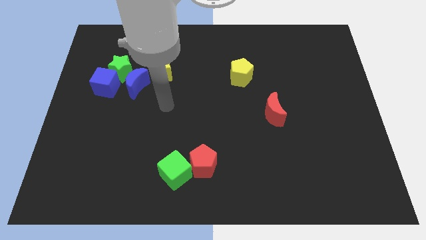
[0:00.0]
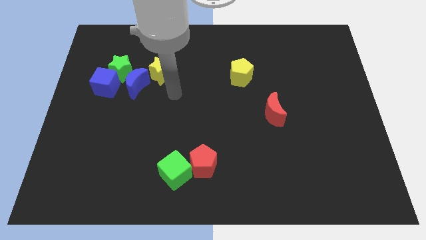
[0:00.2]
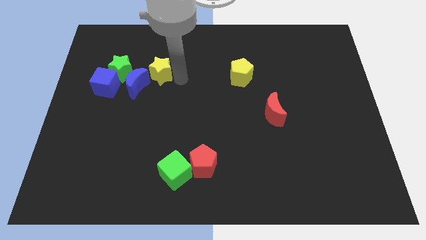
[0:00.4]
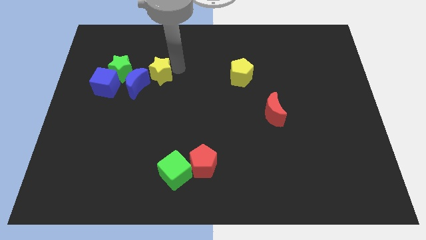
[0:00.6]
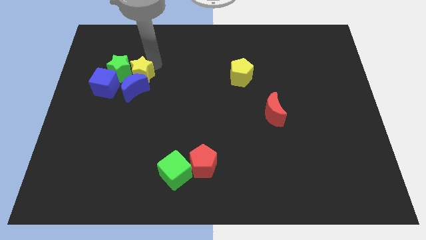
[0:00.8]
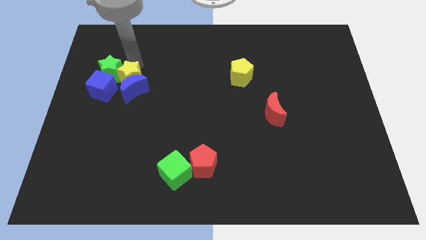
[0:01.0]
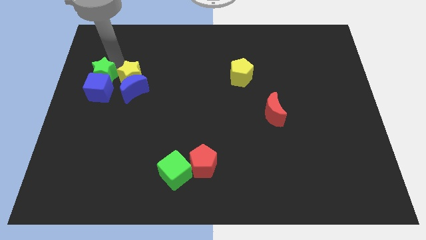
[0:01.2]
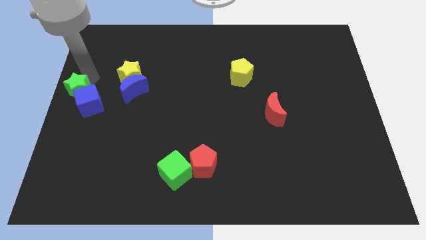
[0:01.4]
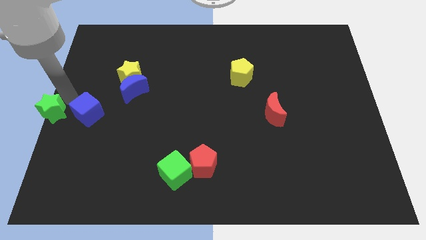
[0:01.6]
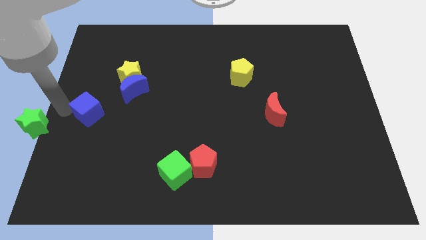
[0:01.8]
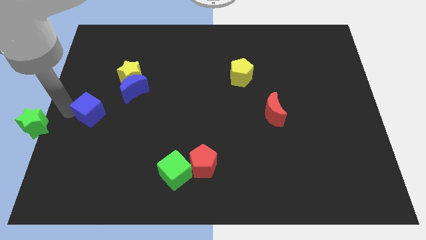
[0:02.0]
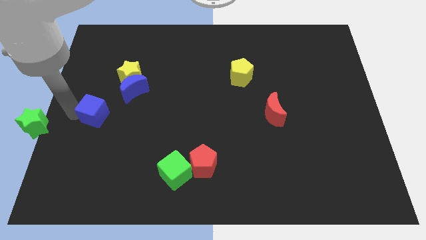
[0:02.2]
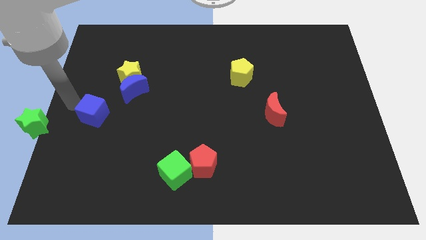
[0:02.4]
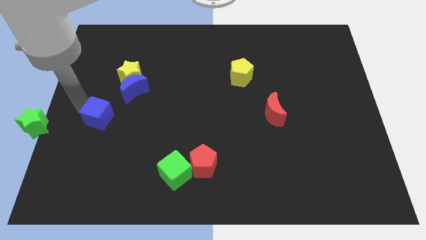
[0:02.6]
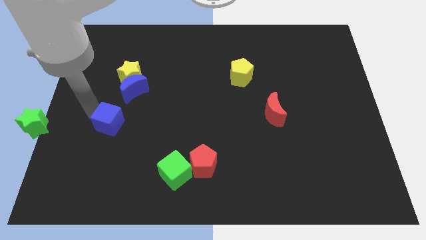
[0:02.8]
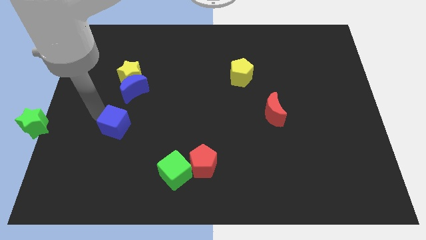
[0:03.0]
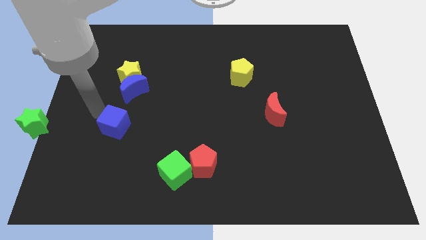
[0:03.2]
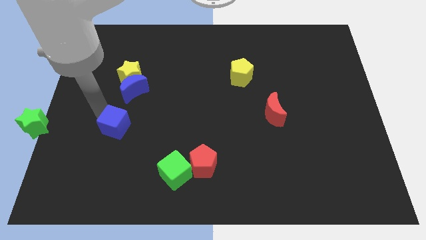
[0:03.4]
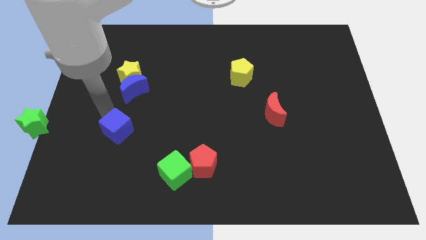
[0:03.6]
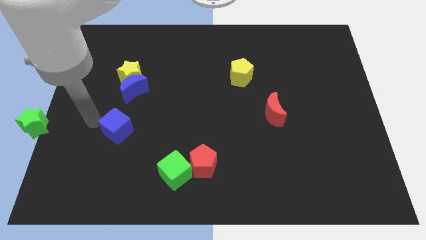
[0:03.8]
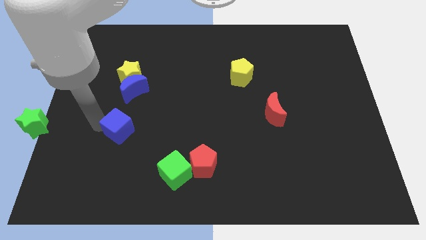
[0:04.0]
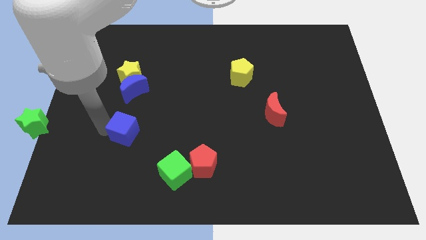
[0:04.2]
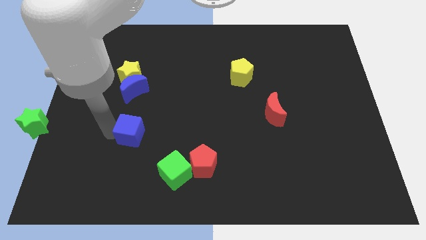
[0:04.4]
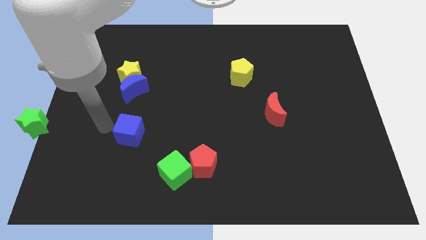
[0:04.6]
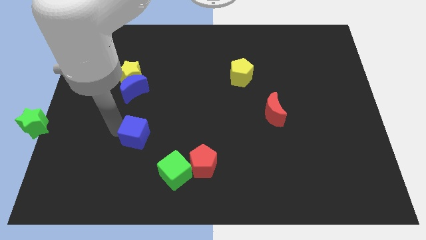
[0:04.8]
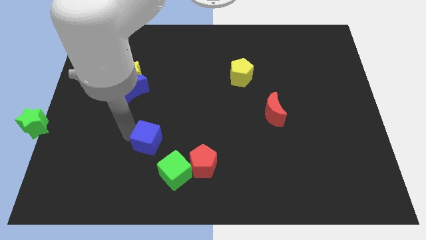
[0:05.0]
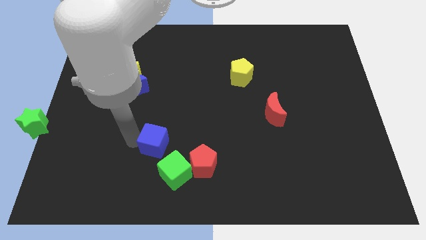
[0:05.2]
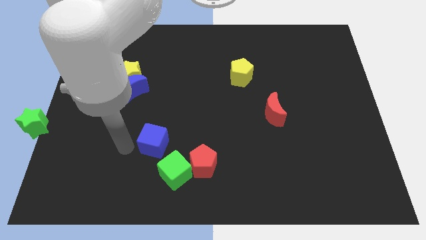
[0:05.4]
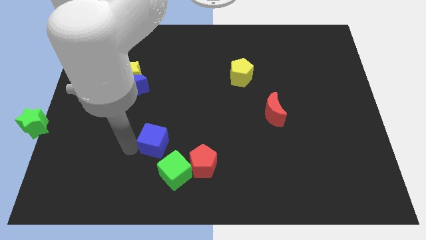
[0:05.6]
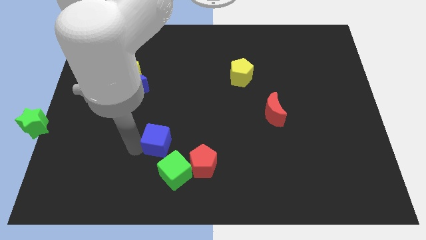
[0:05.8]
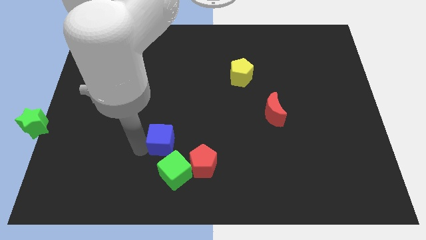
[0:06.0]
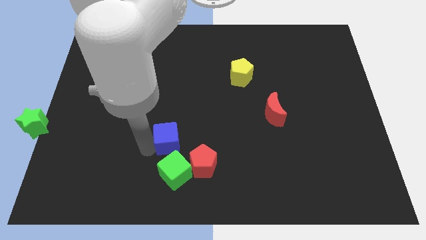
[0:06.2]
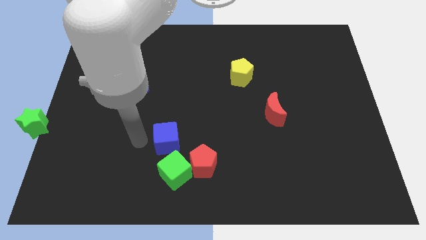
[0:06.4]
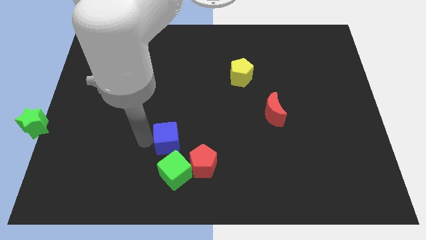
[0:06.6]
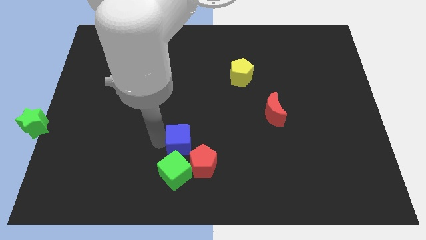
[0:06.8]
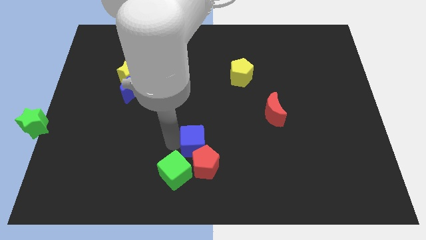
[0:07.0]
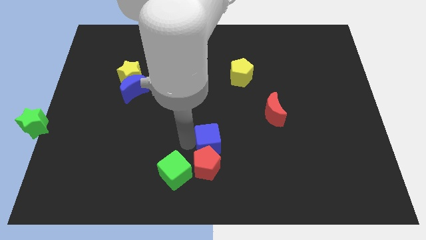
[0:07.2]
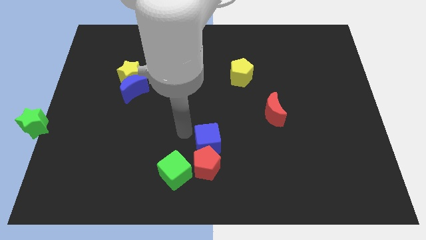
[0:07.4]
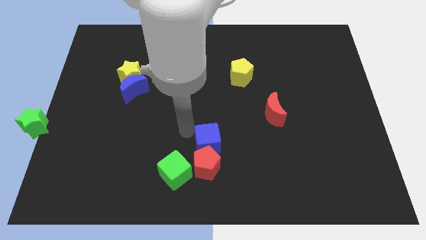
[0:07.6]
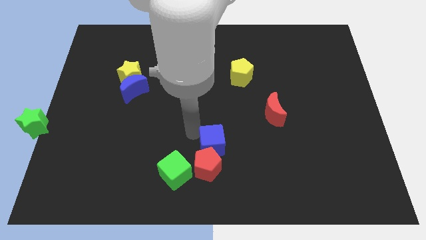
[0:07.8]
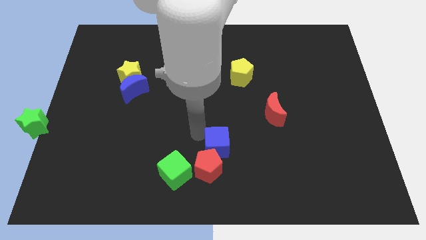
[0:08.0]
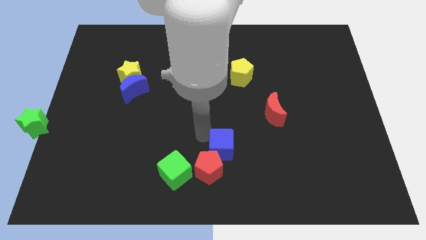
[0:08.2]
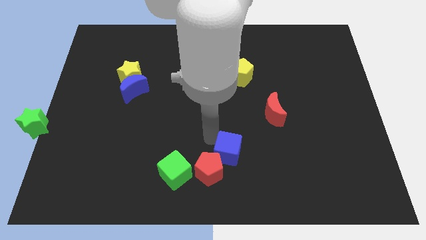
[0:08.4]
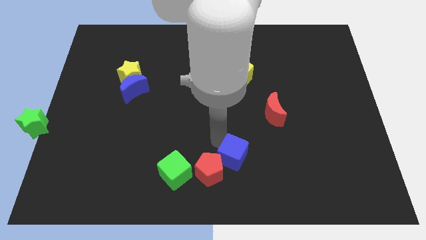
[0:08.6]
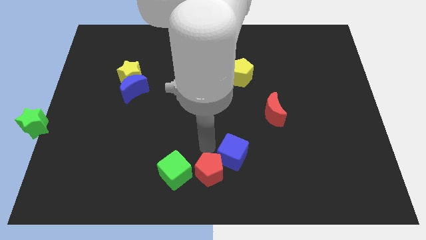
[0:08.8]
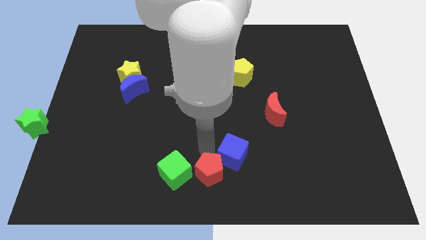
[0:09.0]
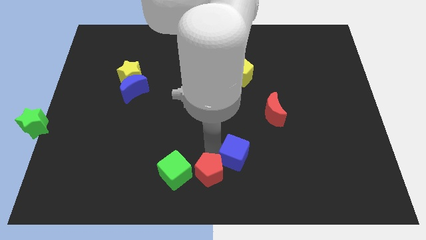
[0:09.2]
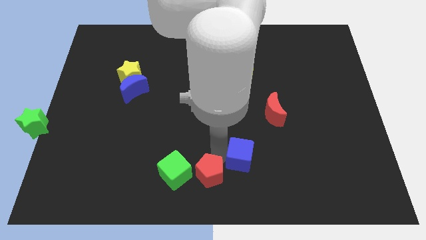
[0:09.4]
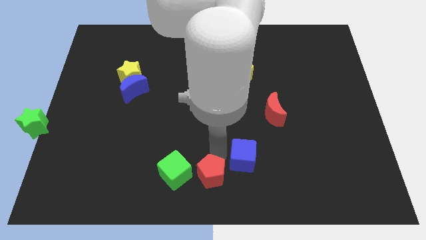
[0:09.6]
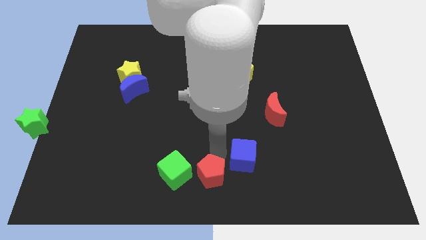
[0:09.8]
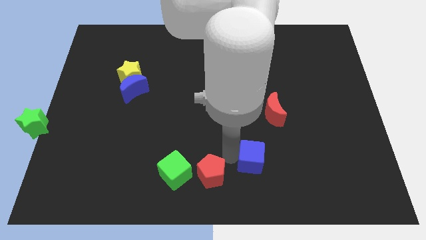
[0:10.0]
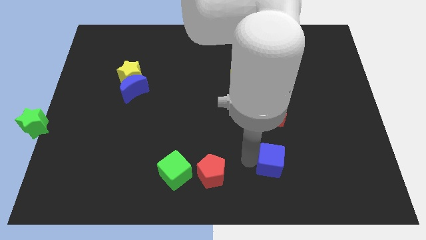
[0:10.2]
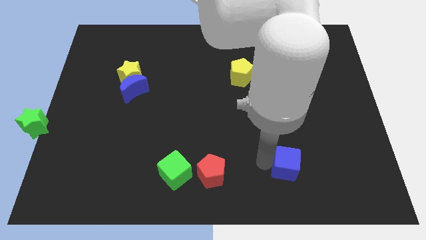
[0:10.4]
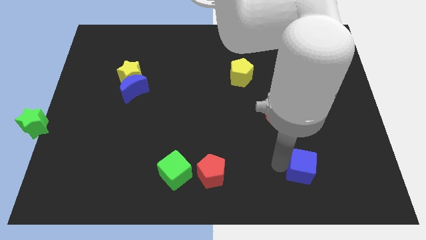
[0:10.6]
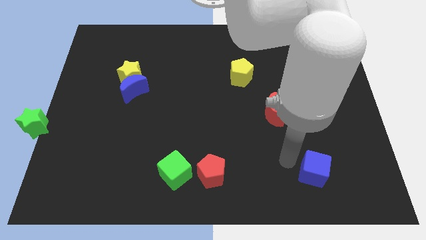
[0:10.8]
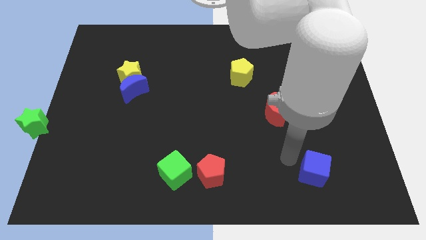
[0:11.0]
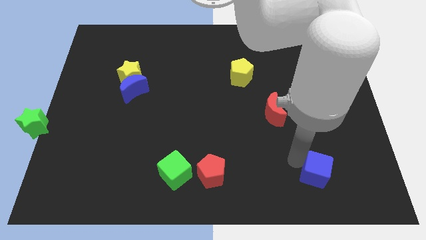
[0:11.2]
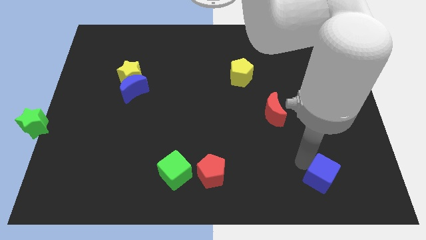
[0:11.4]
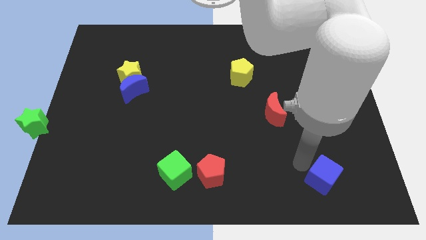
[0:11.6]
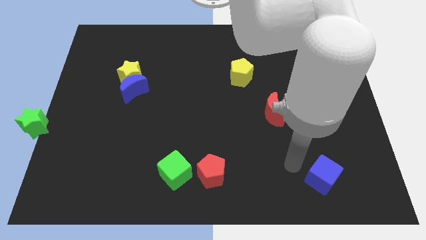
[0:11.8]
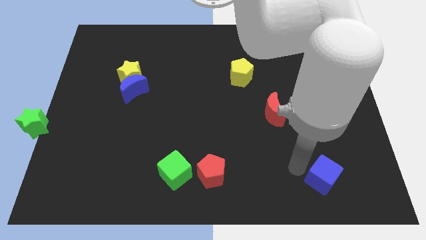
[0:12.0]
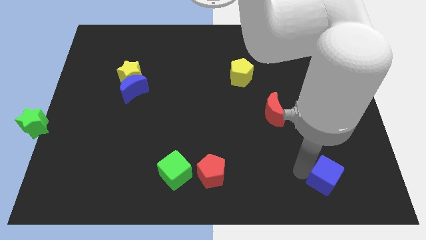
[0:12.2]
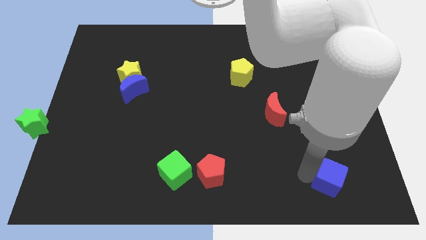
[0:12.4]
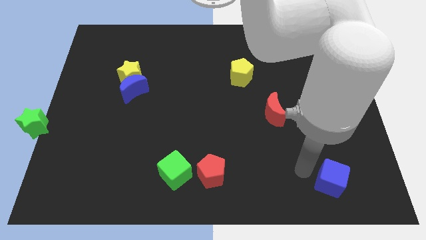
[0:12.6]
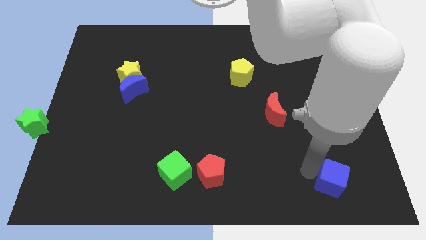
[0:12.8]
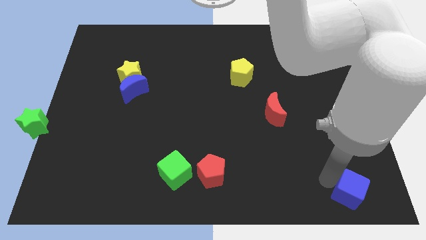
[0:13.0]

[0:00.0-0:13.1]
put the blue cube to the lower right corner
